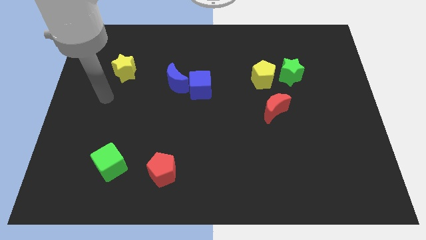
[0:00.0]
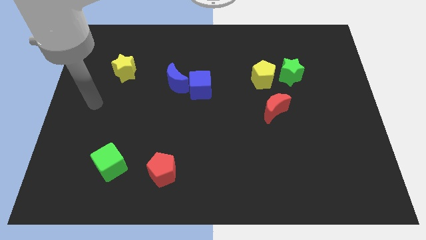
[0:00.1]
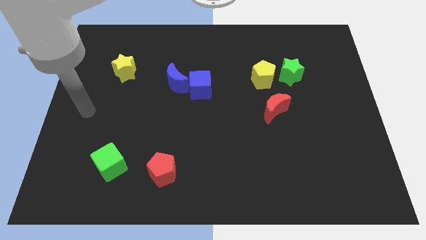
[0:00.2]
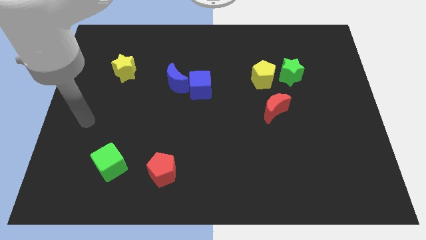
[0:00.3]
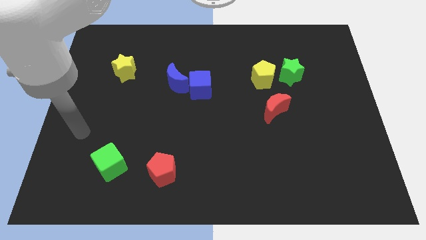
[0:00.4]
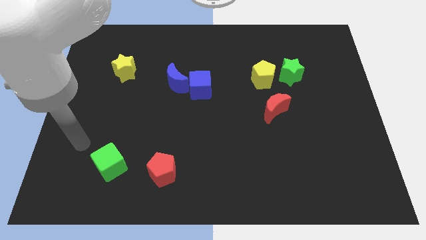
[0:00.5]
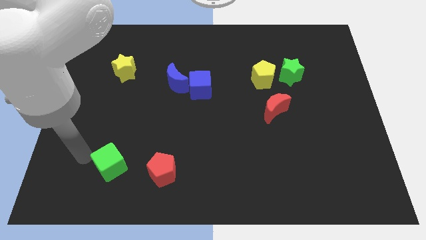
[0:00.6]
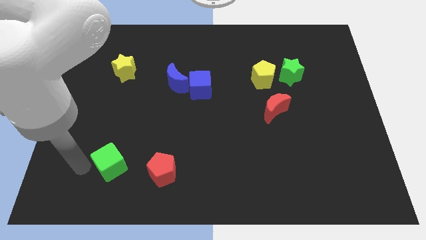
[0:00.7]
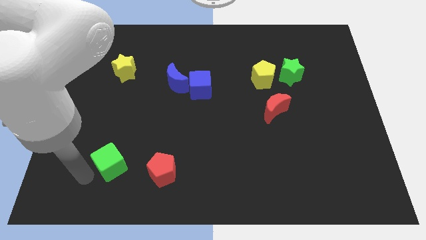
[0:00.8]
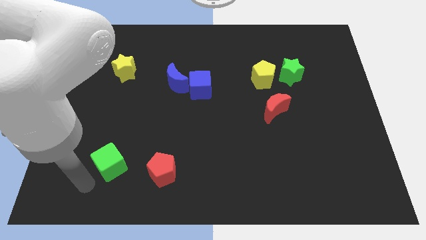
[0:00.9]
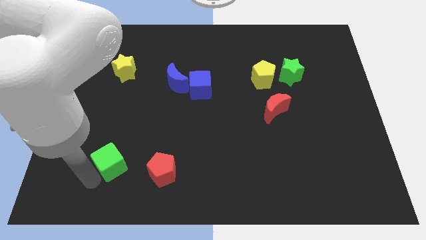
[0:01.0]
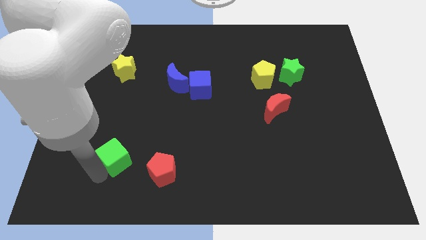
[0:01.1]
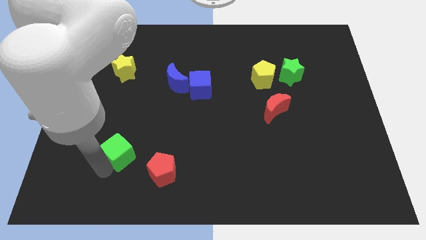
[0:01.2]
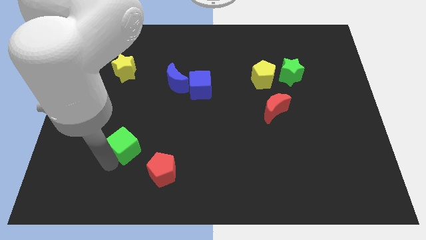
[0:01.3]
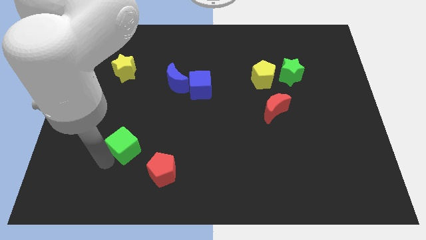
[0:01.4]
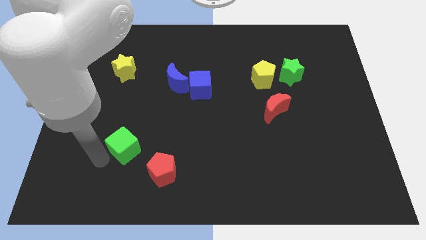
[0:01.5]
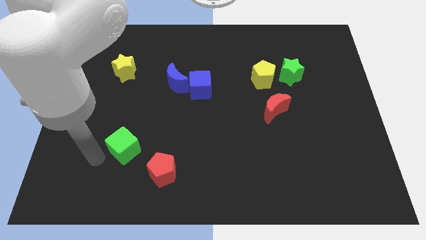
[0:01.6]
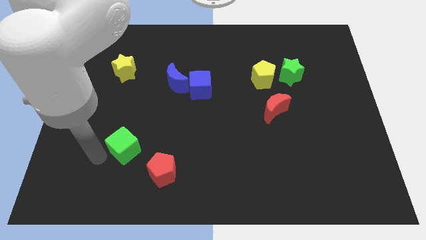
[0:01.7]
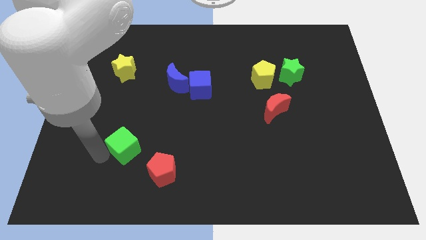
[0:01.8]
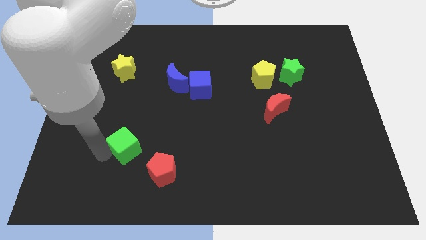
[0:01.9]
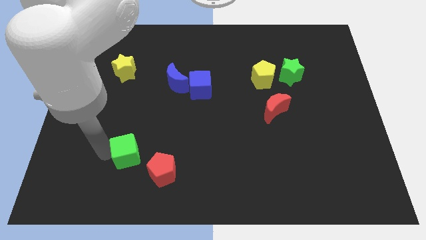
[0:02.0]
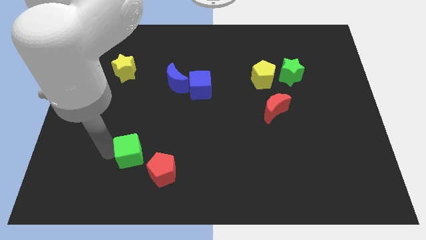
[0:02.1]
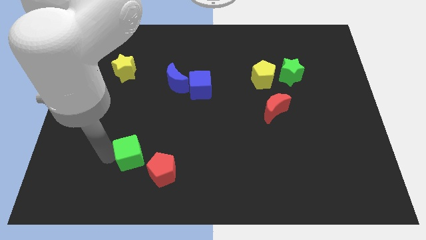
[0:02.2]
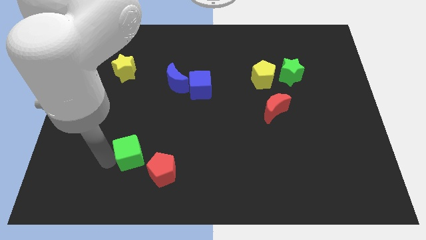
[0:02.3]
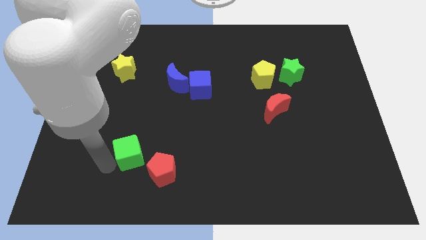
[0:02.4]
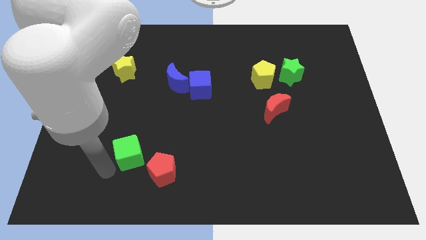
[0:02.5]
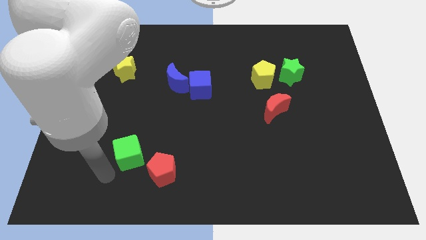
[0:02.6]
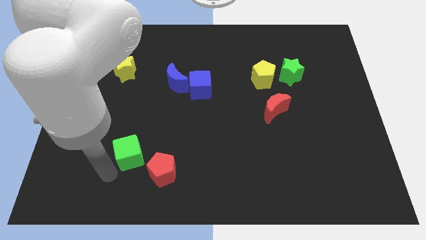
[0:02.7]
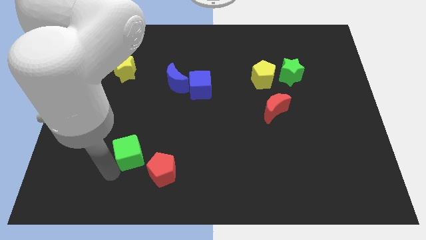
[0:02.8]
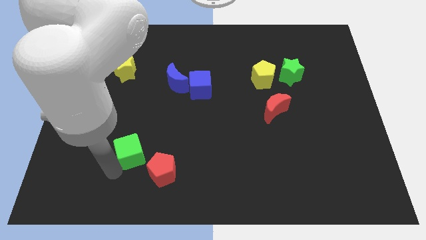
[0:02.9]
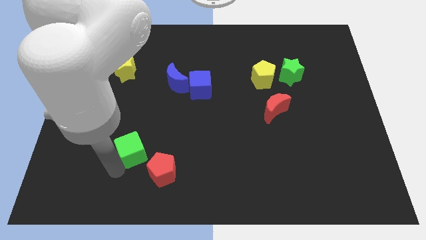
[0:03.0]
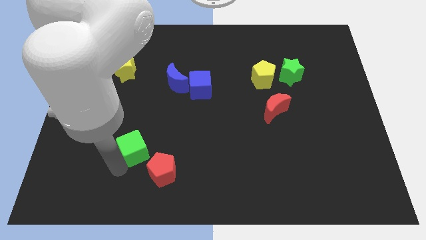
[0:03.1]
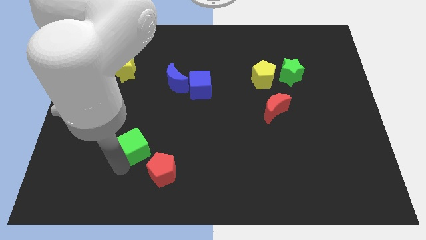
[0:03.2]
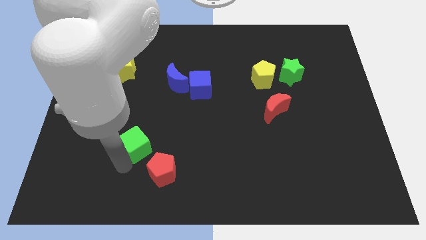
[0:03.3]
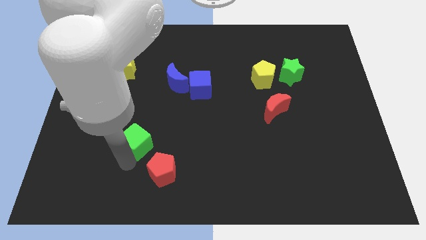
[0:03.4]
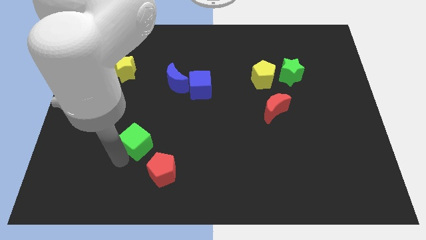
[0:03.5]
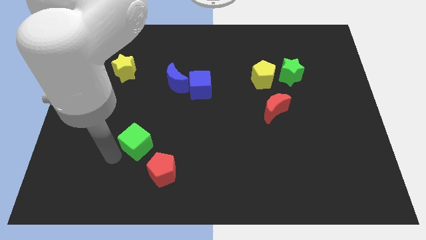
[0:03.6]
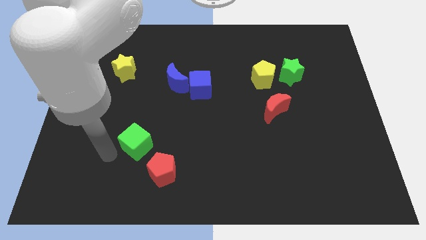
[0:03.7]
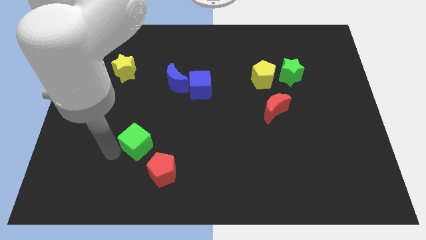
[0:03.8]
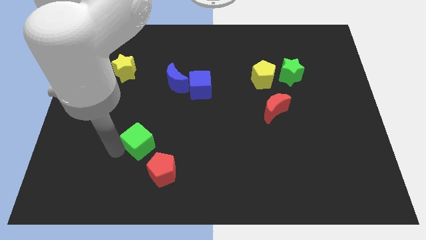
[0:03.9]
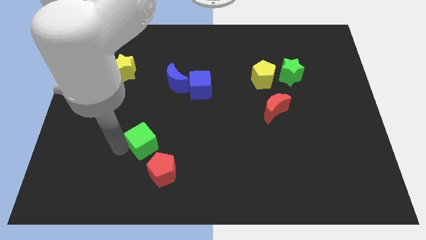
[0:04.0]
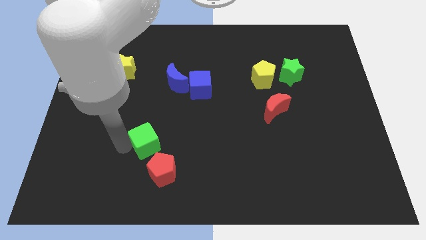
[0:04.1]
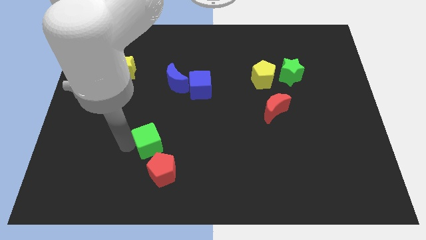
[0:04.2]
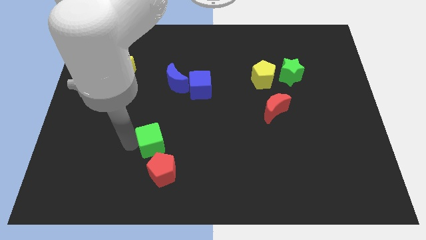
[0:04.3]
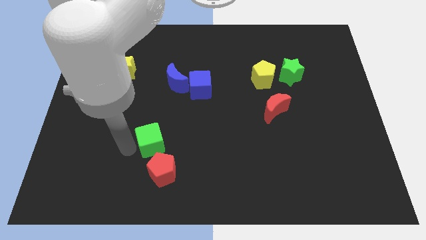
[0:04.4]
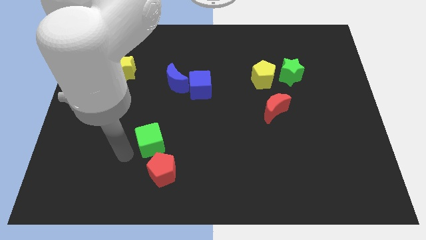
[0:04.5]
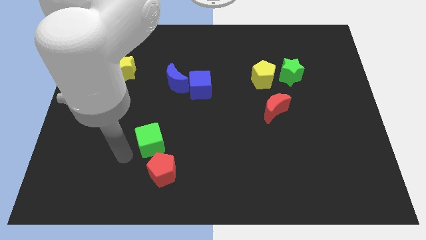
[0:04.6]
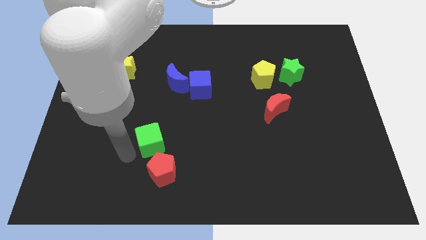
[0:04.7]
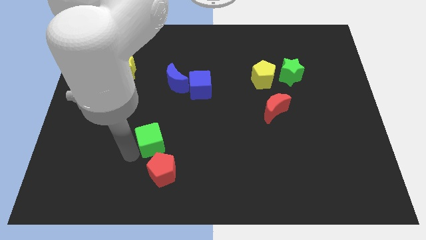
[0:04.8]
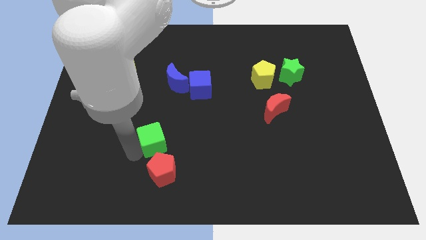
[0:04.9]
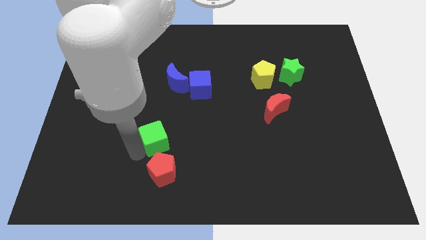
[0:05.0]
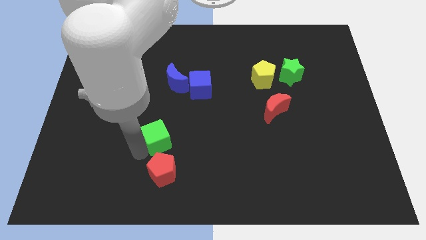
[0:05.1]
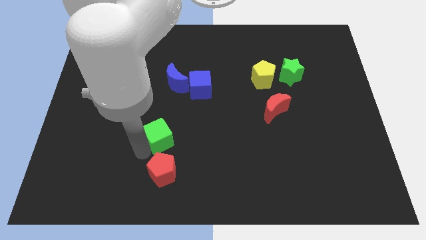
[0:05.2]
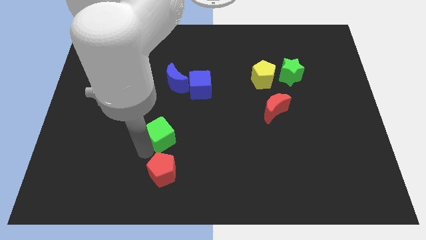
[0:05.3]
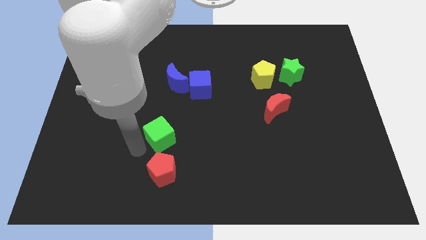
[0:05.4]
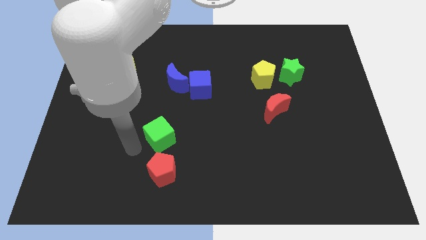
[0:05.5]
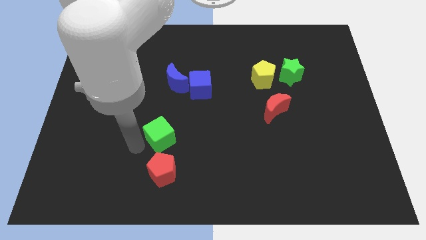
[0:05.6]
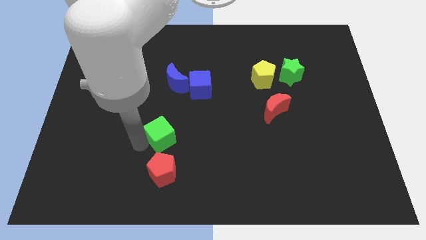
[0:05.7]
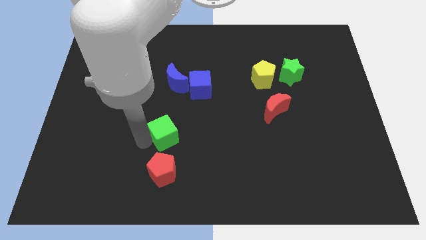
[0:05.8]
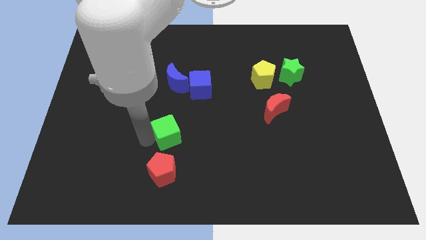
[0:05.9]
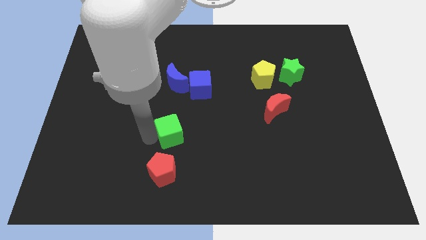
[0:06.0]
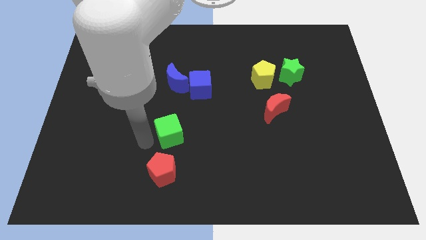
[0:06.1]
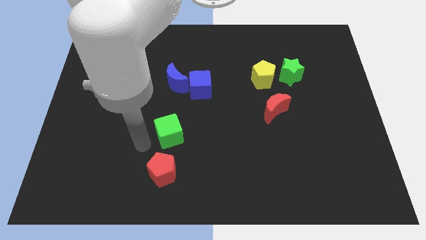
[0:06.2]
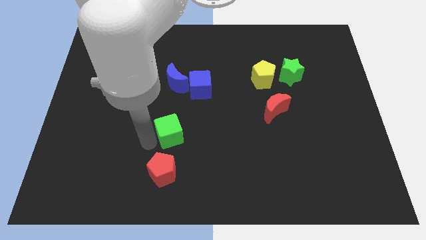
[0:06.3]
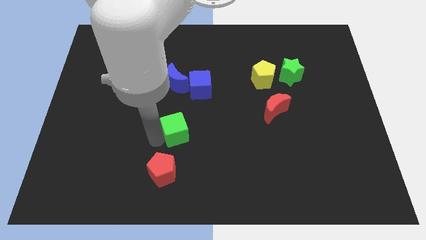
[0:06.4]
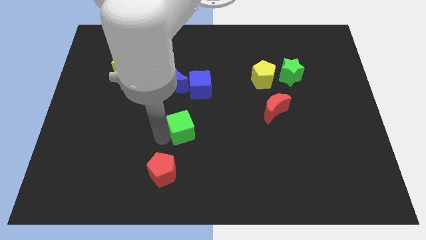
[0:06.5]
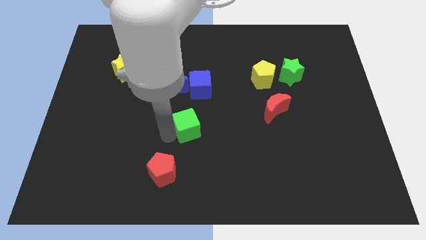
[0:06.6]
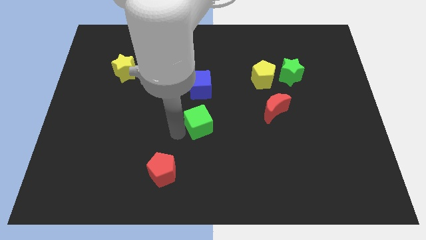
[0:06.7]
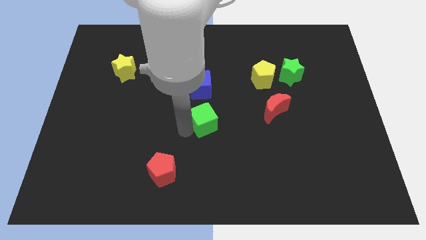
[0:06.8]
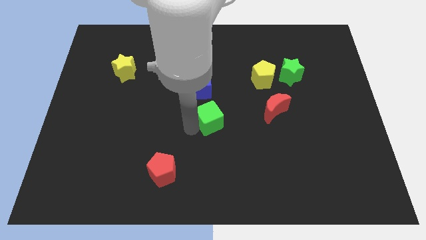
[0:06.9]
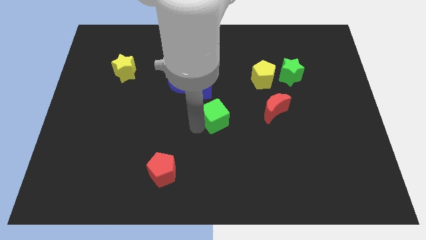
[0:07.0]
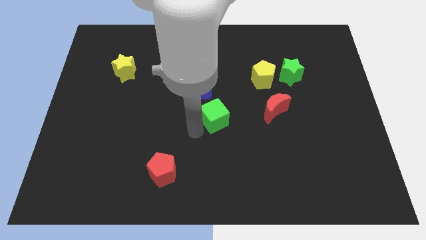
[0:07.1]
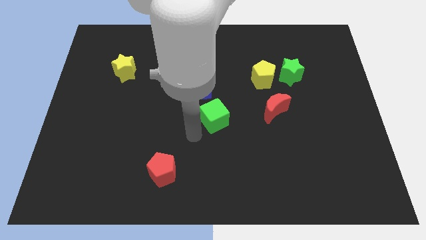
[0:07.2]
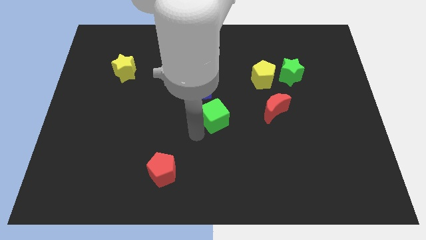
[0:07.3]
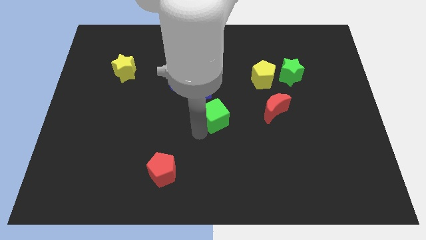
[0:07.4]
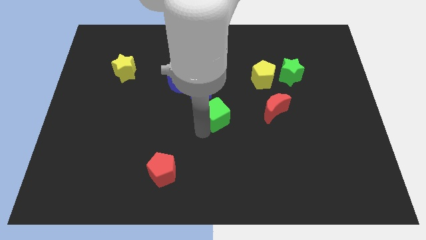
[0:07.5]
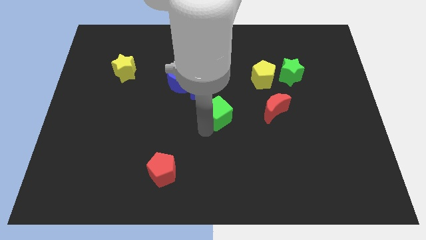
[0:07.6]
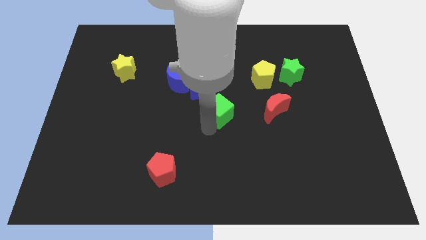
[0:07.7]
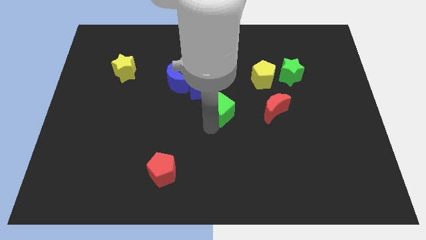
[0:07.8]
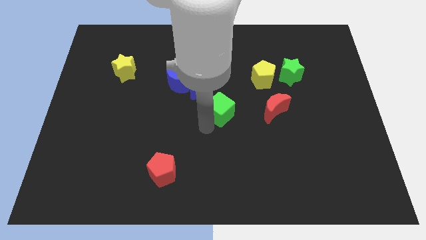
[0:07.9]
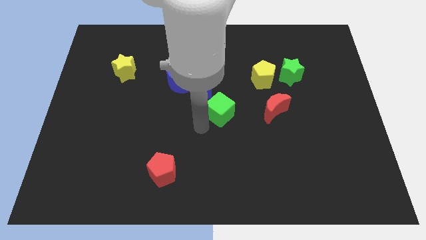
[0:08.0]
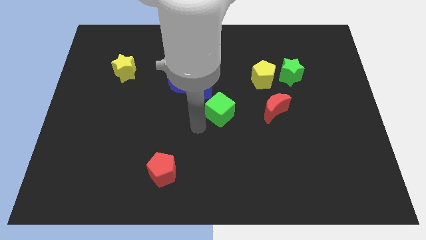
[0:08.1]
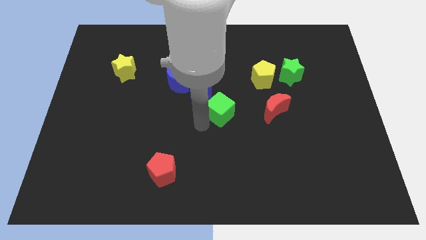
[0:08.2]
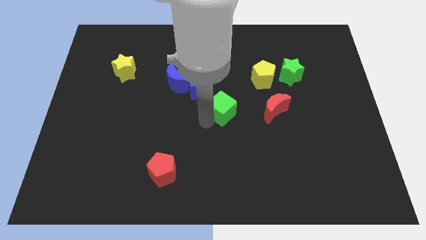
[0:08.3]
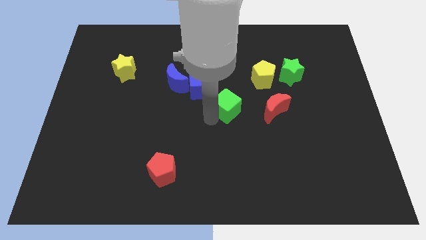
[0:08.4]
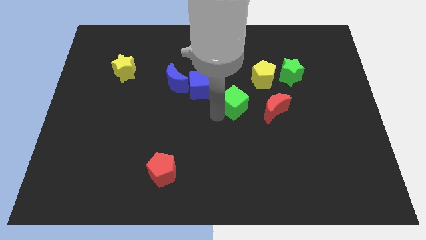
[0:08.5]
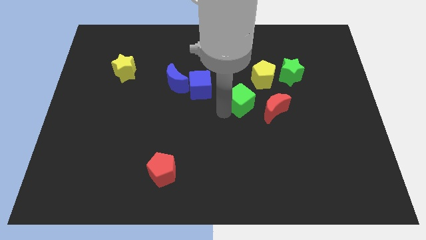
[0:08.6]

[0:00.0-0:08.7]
slide the green cube diagonally up and to the left of the red moon
